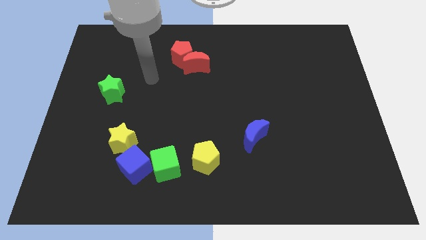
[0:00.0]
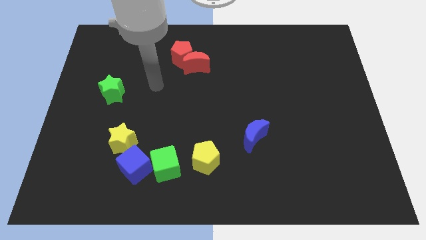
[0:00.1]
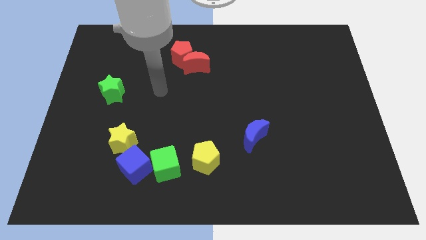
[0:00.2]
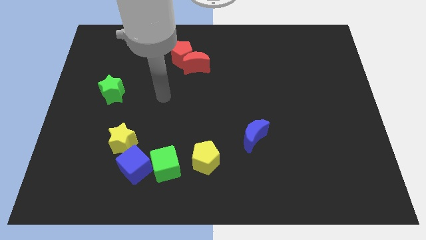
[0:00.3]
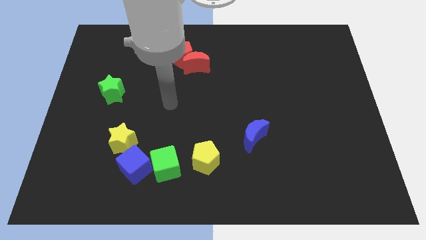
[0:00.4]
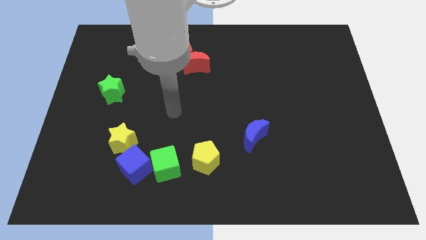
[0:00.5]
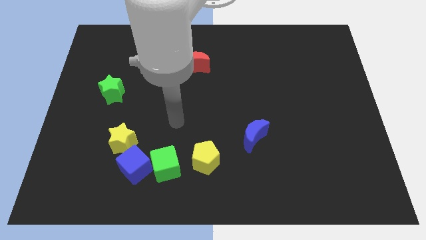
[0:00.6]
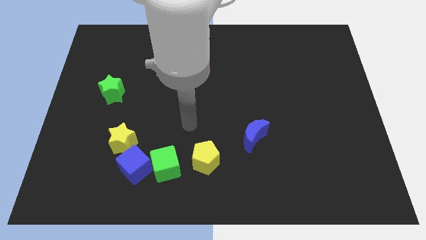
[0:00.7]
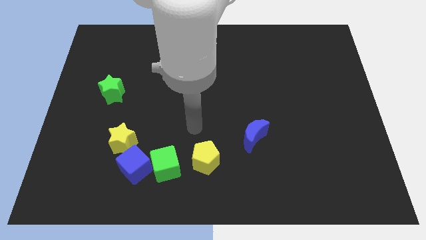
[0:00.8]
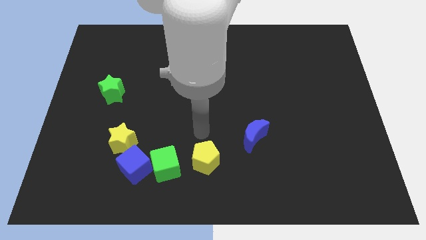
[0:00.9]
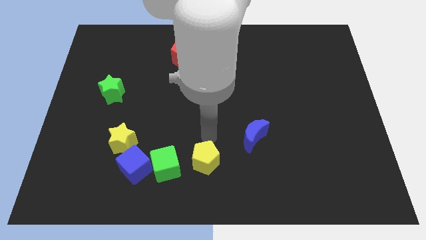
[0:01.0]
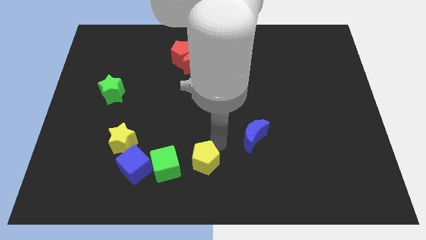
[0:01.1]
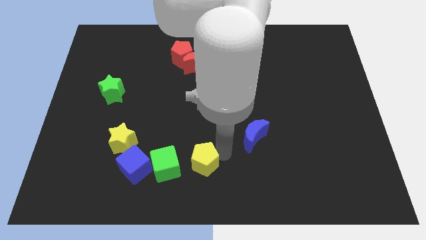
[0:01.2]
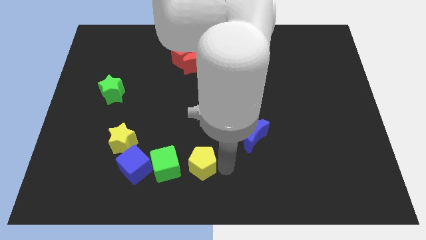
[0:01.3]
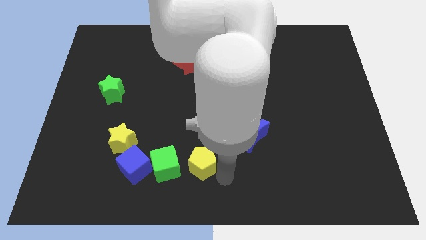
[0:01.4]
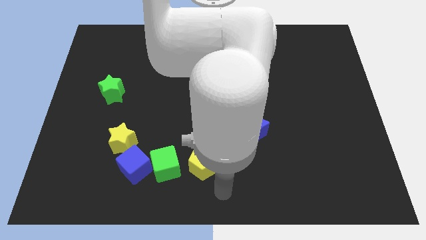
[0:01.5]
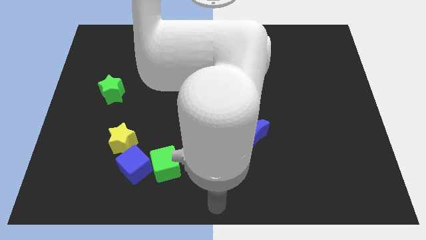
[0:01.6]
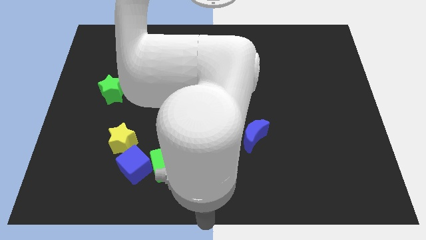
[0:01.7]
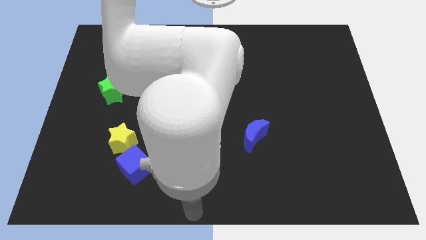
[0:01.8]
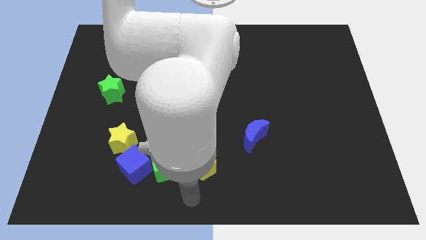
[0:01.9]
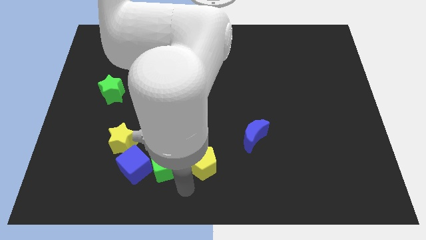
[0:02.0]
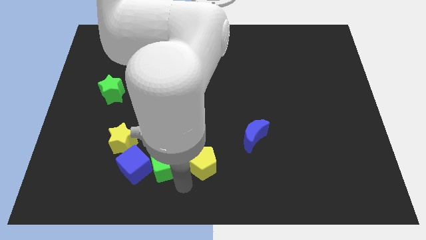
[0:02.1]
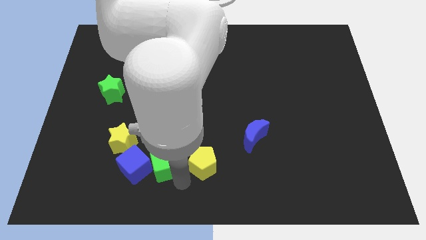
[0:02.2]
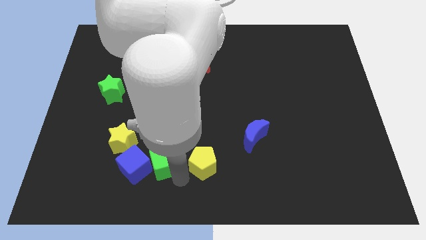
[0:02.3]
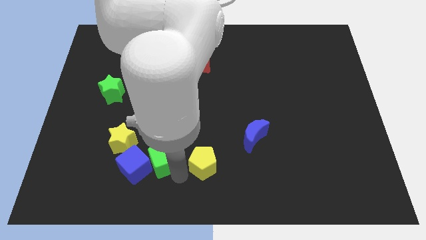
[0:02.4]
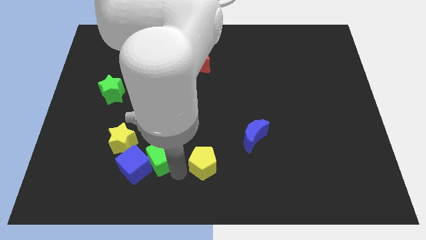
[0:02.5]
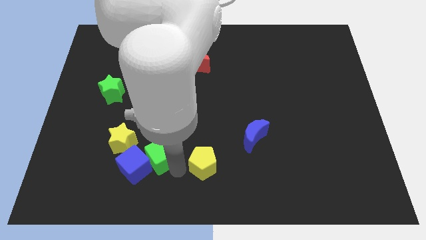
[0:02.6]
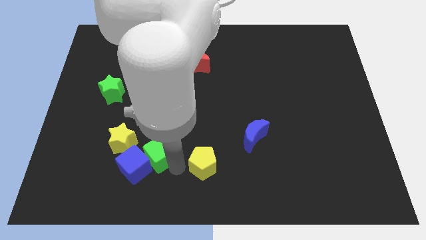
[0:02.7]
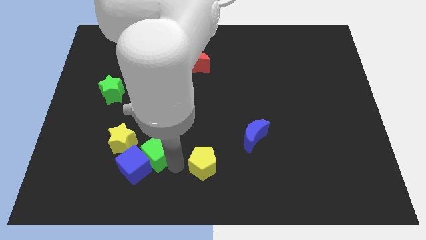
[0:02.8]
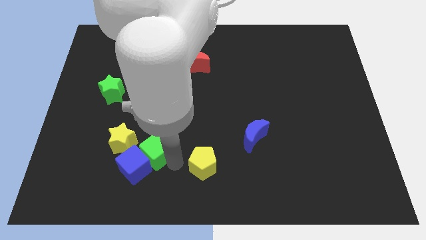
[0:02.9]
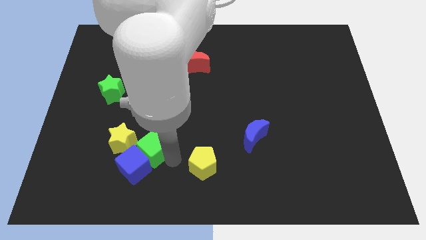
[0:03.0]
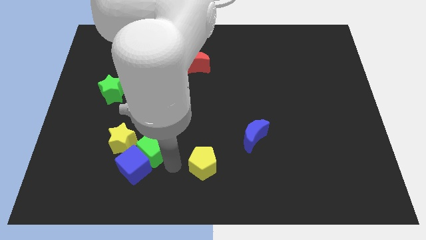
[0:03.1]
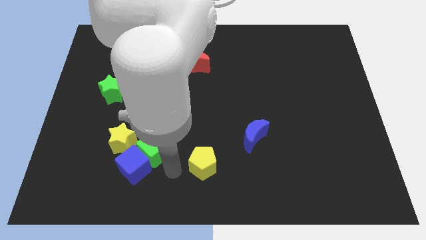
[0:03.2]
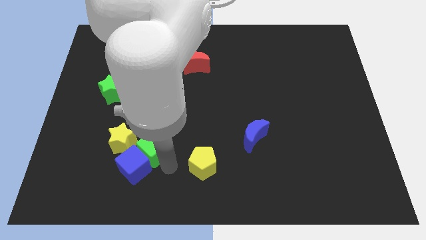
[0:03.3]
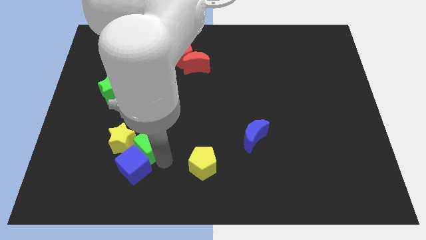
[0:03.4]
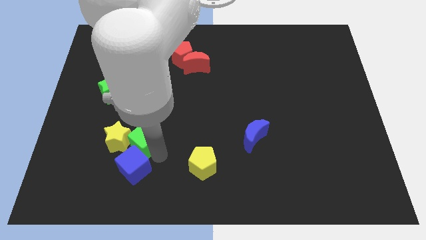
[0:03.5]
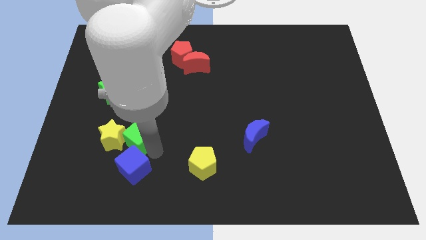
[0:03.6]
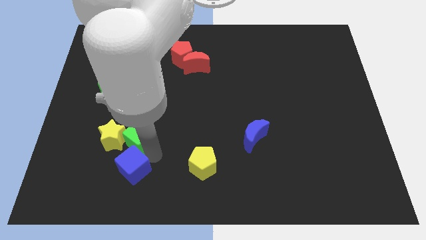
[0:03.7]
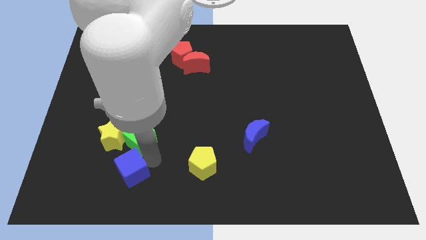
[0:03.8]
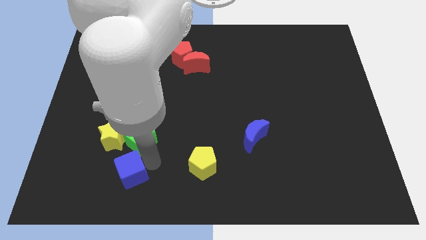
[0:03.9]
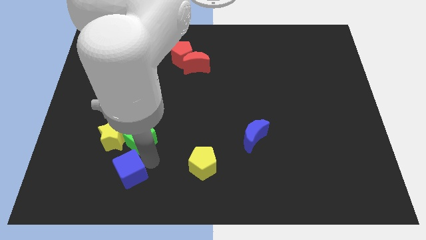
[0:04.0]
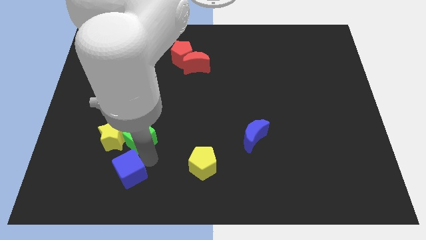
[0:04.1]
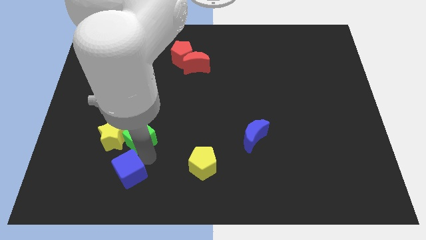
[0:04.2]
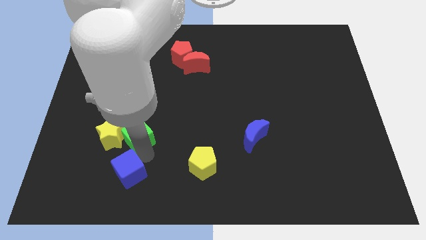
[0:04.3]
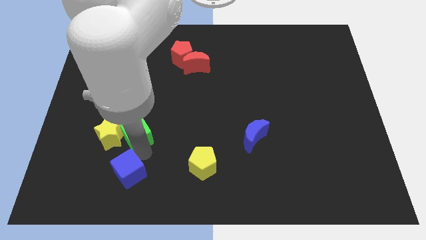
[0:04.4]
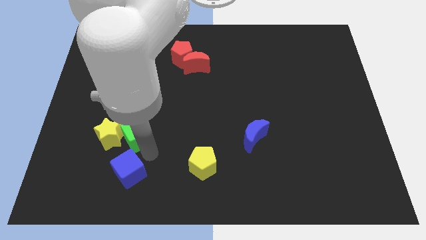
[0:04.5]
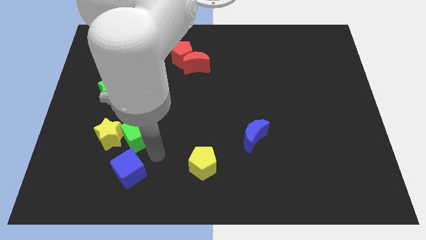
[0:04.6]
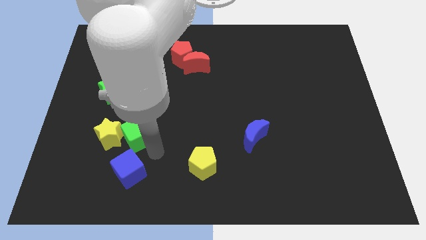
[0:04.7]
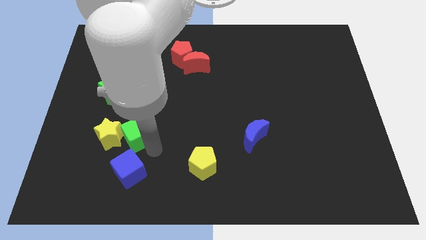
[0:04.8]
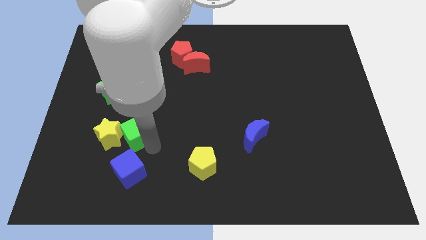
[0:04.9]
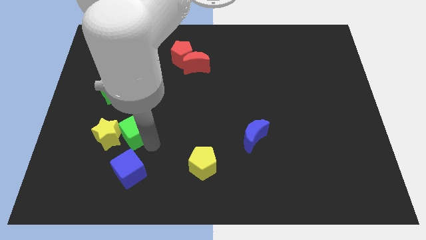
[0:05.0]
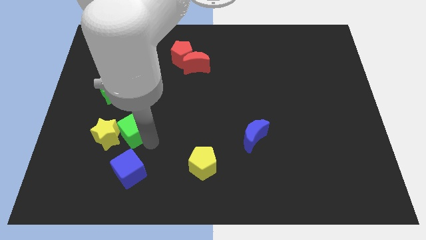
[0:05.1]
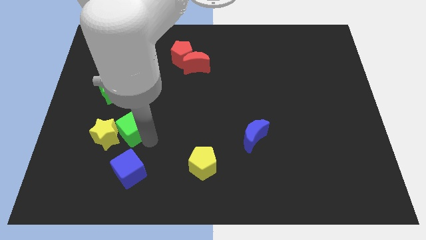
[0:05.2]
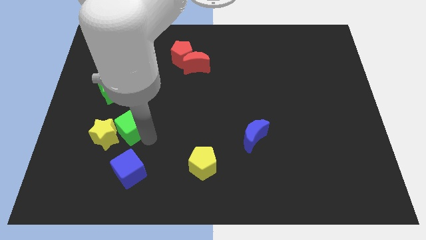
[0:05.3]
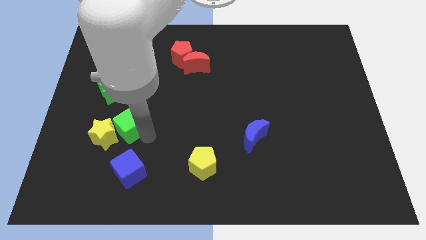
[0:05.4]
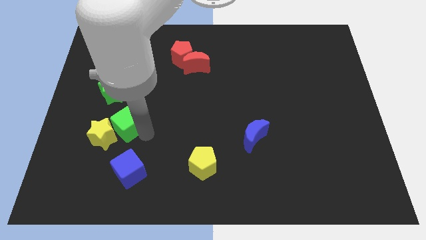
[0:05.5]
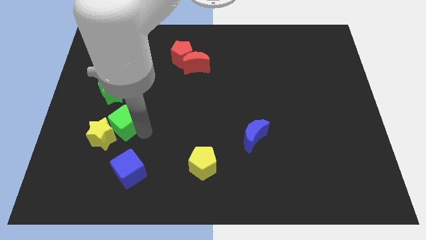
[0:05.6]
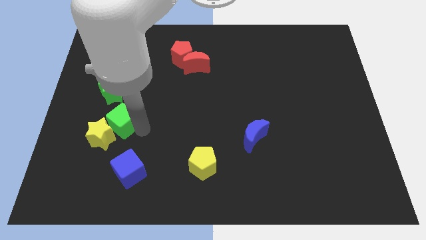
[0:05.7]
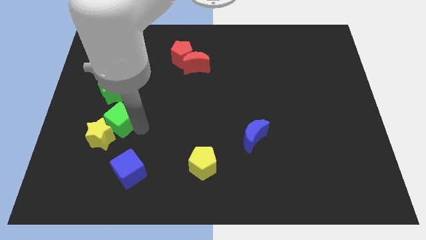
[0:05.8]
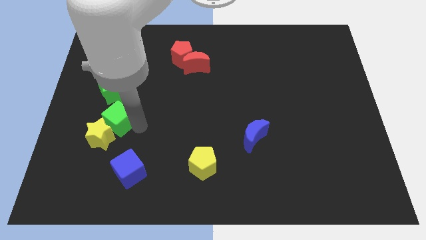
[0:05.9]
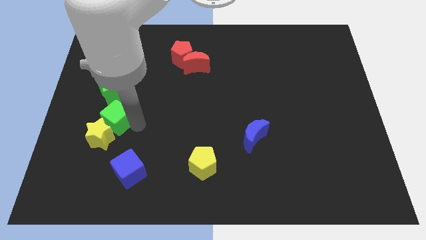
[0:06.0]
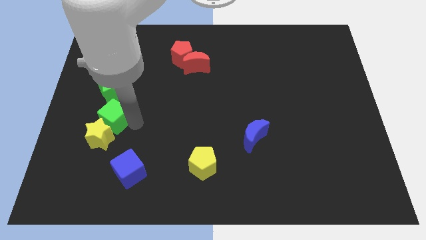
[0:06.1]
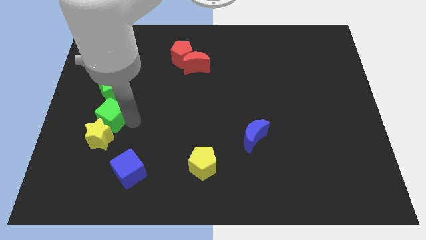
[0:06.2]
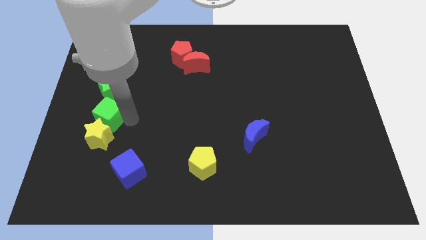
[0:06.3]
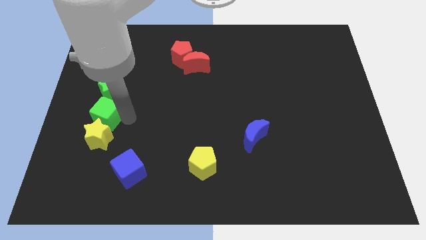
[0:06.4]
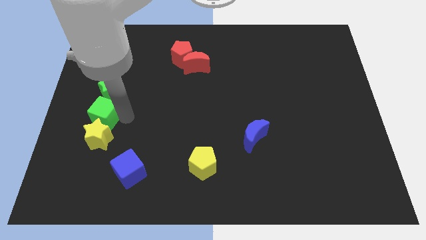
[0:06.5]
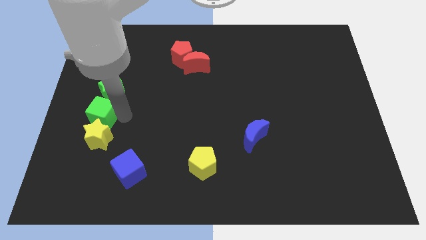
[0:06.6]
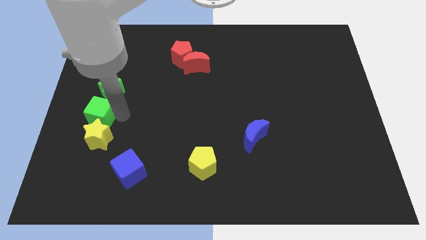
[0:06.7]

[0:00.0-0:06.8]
slide the green cube to the left side
